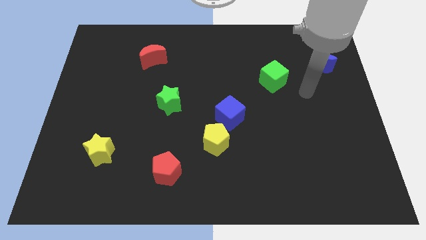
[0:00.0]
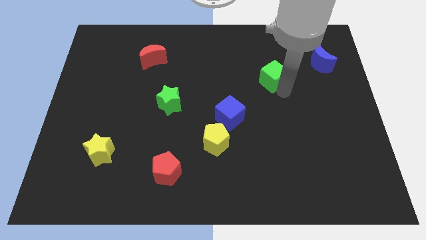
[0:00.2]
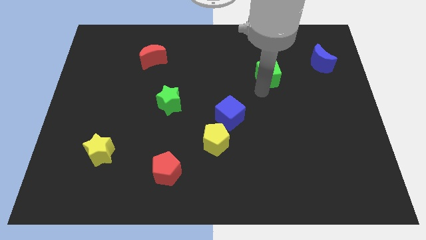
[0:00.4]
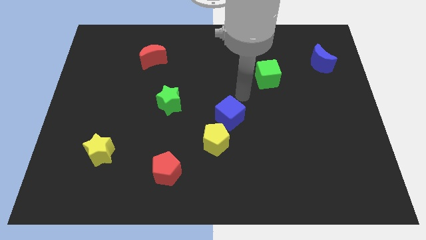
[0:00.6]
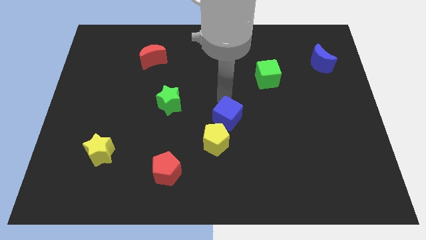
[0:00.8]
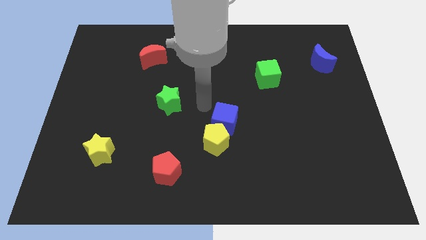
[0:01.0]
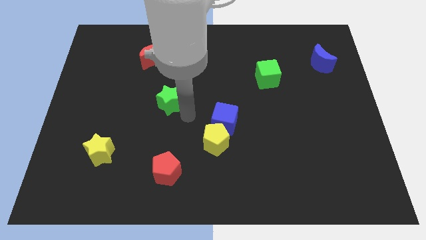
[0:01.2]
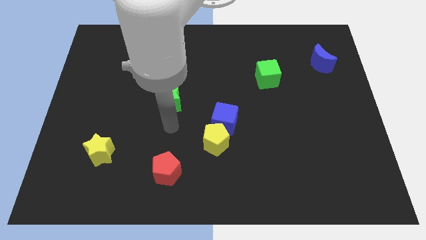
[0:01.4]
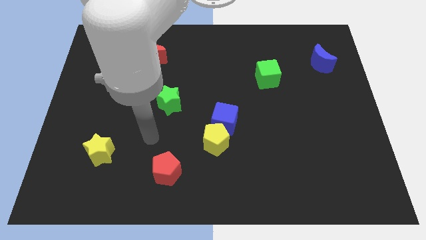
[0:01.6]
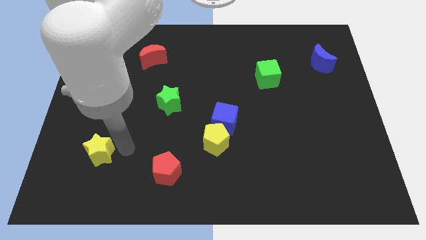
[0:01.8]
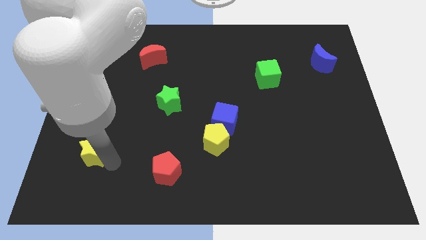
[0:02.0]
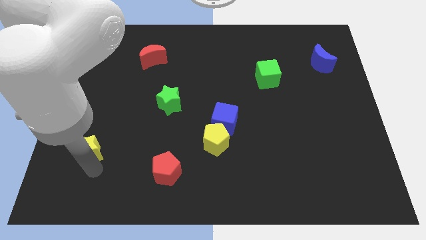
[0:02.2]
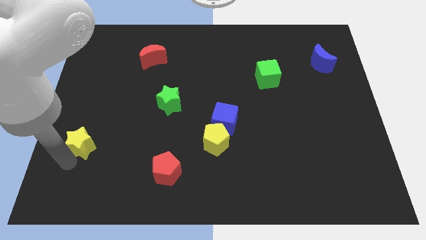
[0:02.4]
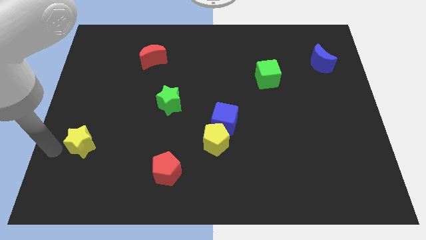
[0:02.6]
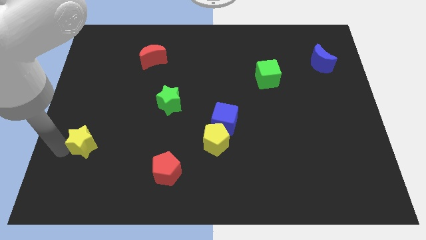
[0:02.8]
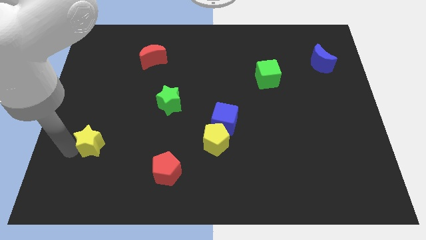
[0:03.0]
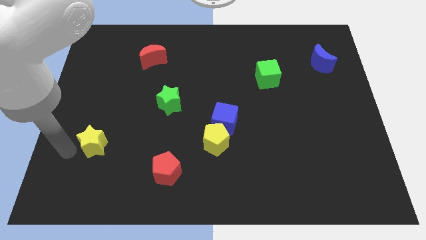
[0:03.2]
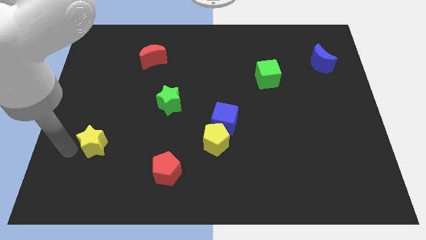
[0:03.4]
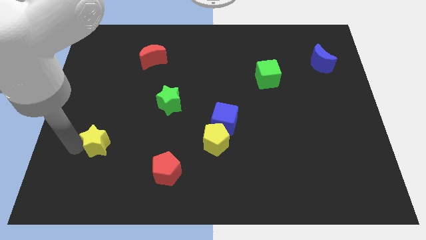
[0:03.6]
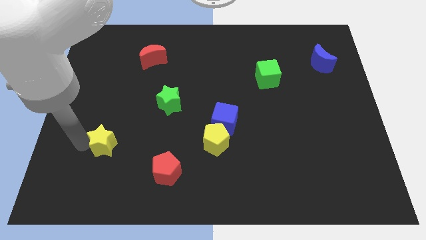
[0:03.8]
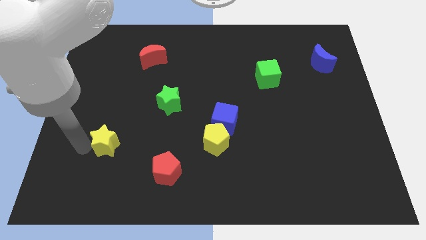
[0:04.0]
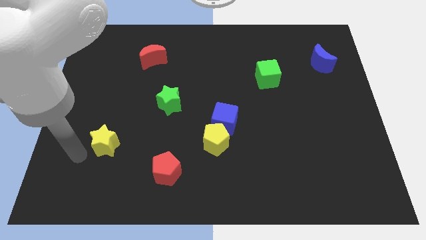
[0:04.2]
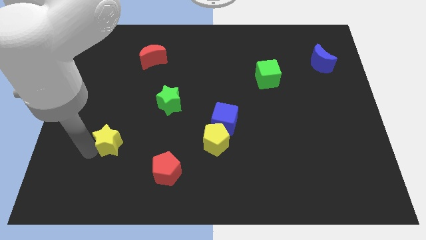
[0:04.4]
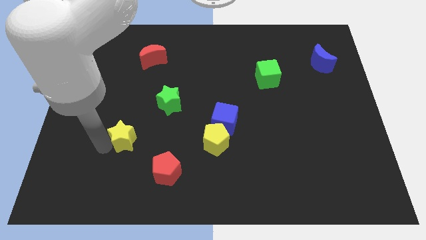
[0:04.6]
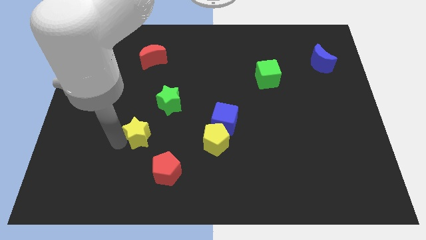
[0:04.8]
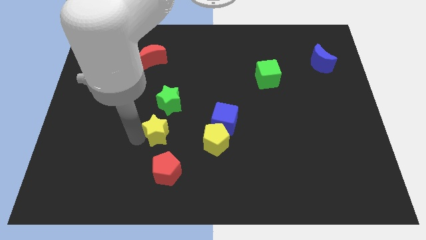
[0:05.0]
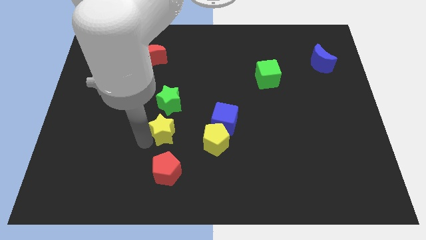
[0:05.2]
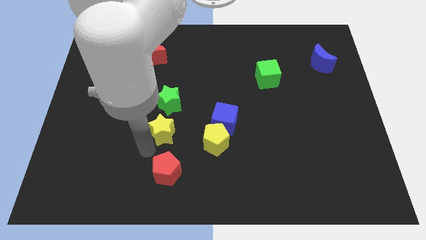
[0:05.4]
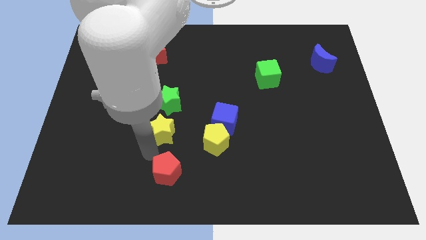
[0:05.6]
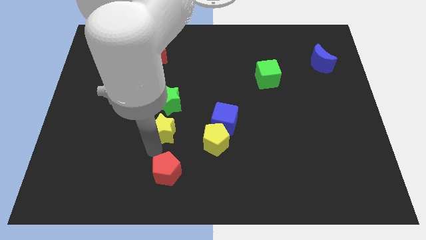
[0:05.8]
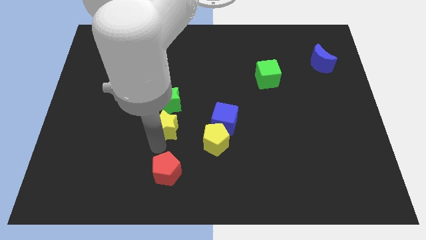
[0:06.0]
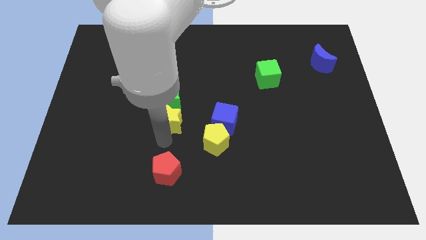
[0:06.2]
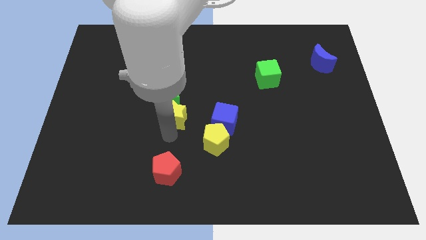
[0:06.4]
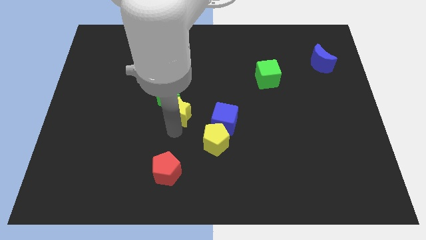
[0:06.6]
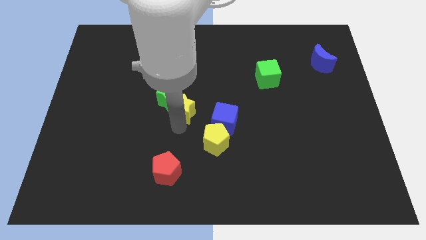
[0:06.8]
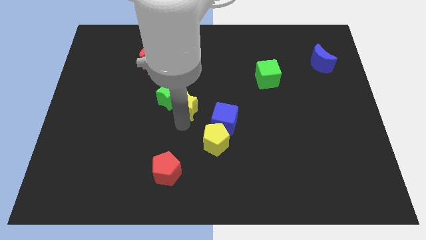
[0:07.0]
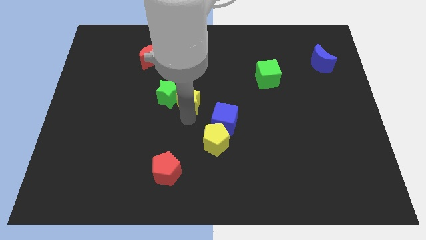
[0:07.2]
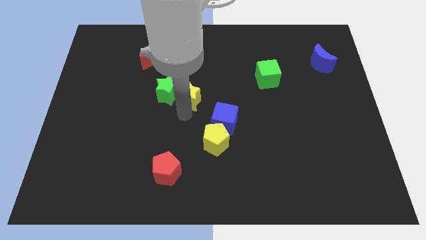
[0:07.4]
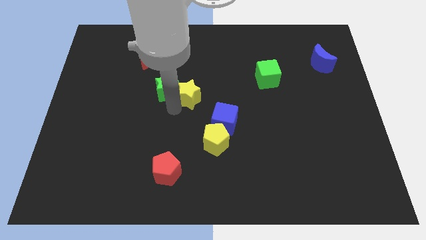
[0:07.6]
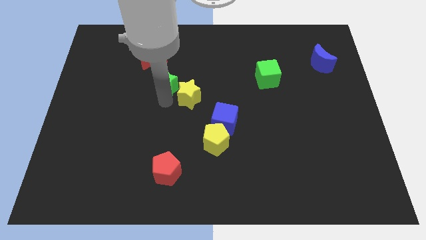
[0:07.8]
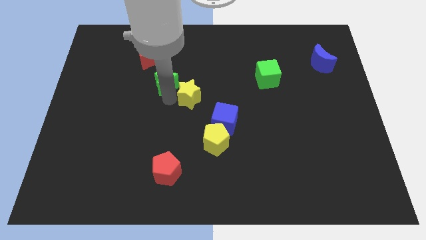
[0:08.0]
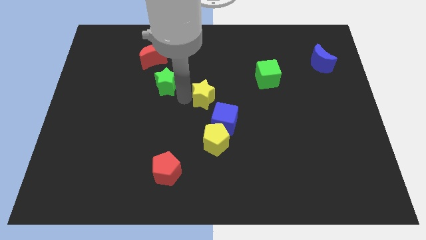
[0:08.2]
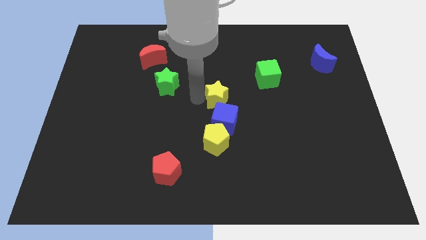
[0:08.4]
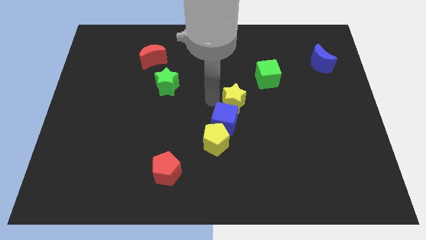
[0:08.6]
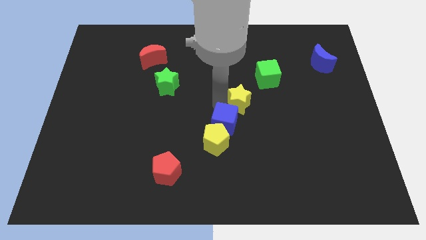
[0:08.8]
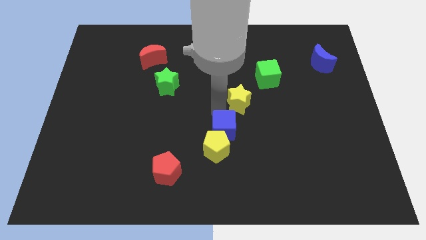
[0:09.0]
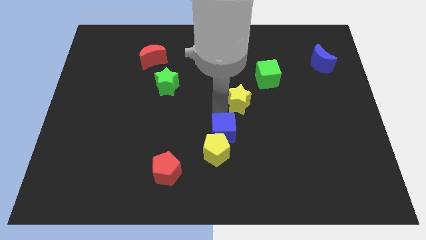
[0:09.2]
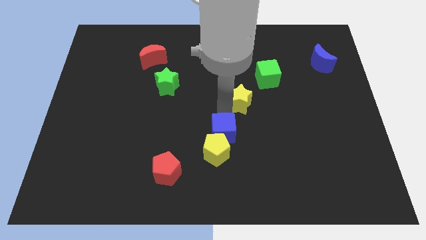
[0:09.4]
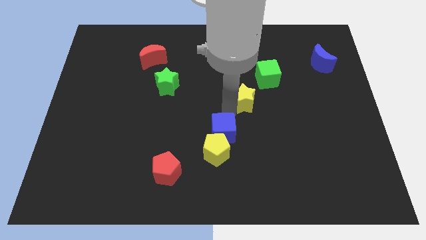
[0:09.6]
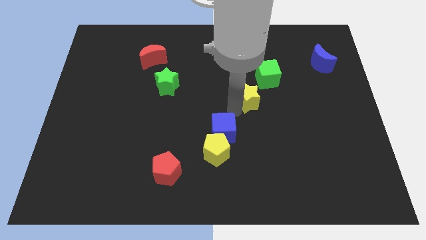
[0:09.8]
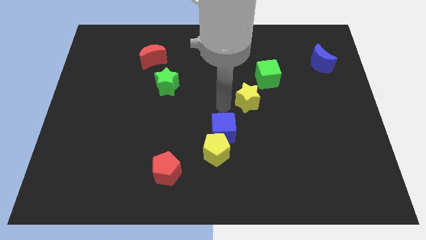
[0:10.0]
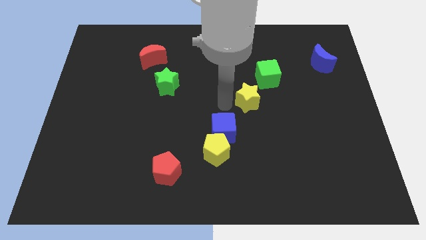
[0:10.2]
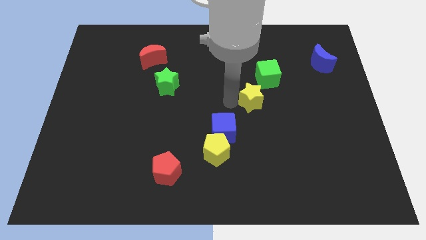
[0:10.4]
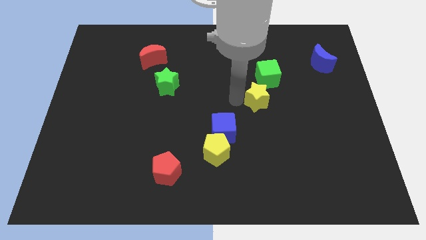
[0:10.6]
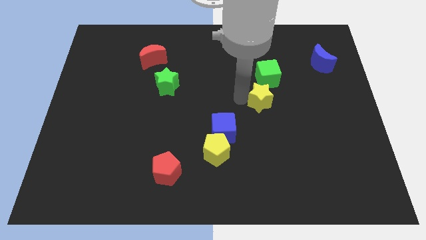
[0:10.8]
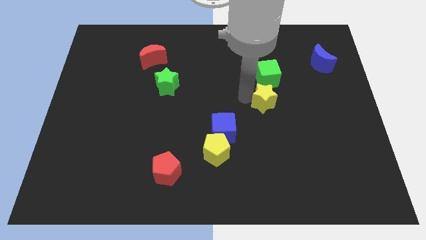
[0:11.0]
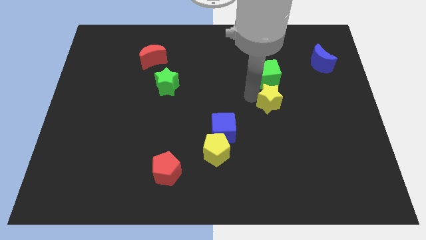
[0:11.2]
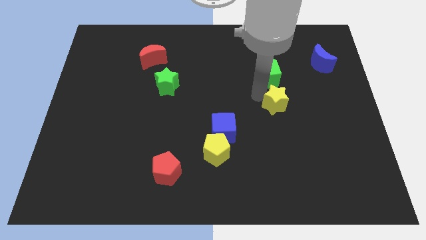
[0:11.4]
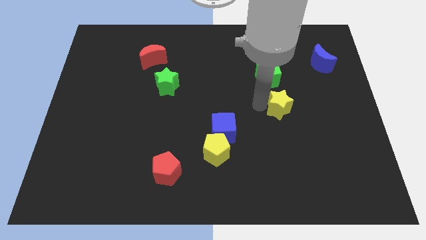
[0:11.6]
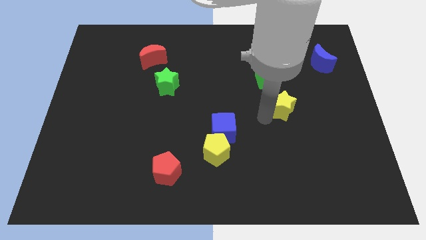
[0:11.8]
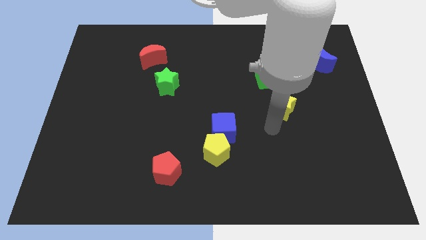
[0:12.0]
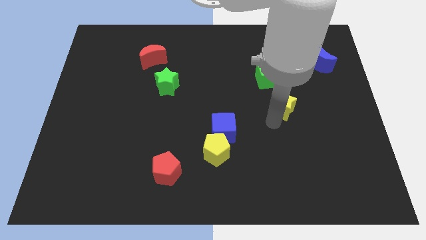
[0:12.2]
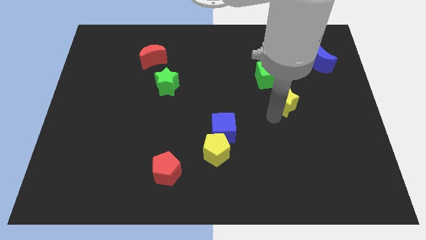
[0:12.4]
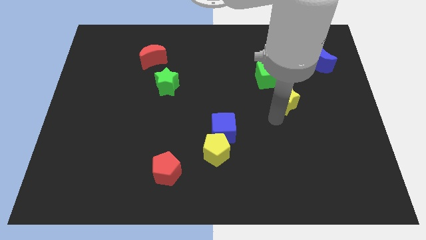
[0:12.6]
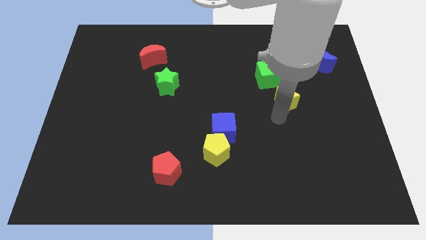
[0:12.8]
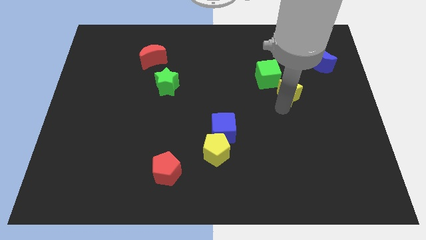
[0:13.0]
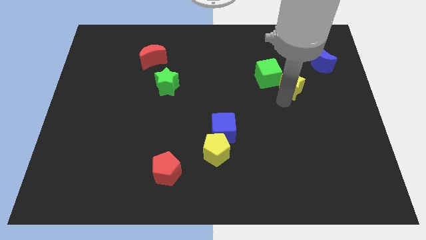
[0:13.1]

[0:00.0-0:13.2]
put the yellow star right of the green cube

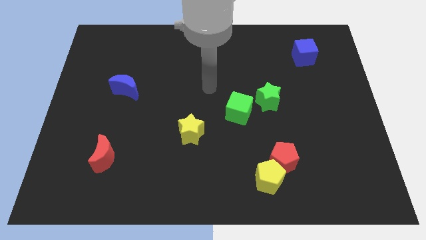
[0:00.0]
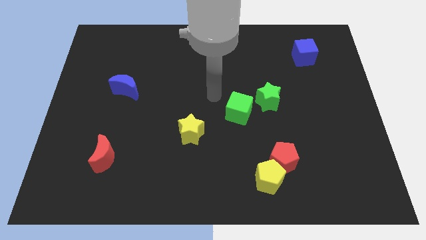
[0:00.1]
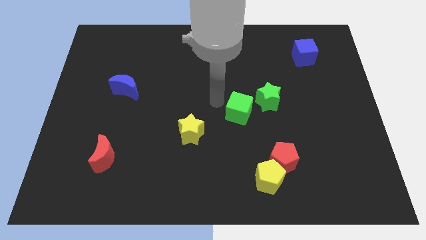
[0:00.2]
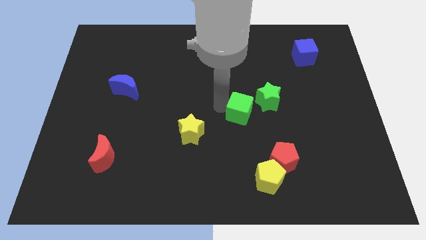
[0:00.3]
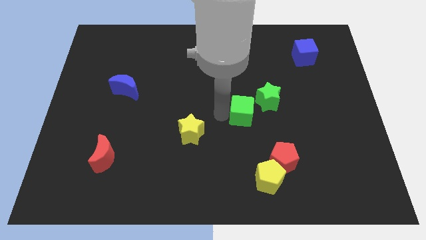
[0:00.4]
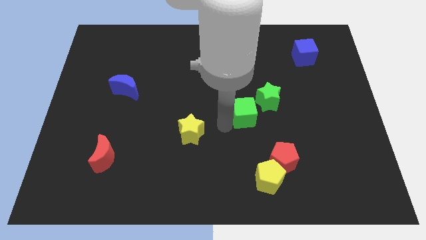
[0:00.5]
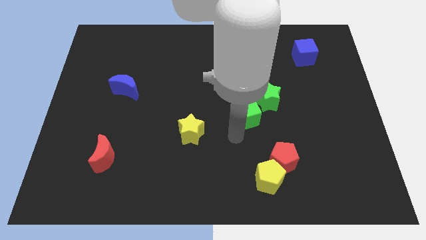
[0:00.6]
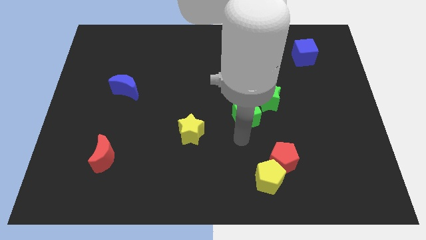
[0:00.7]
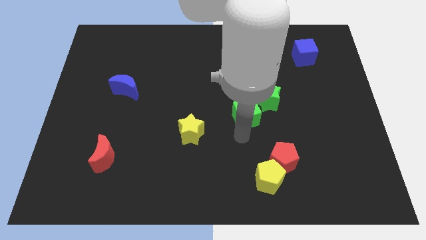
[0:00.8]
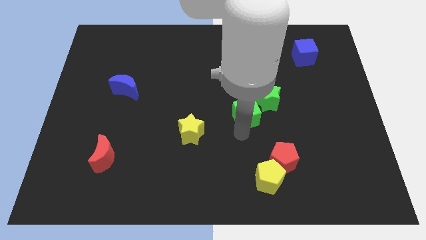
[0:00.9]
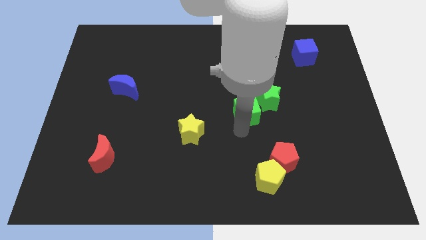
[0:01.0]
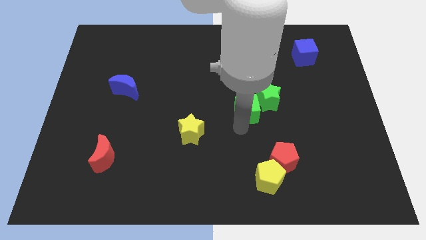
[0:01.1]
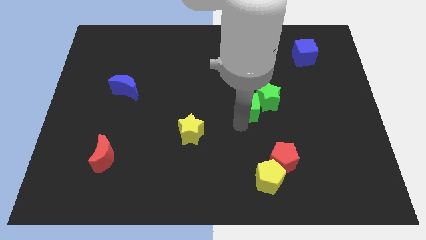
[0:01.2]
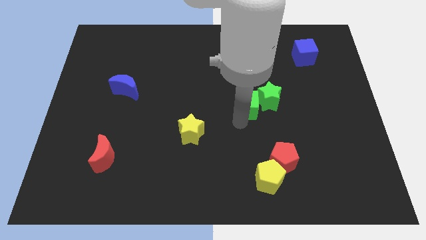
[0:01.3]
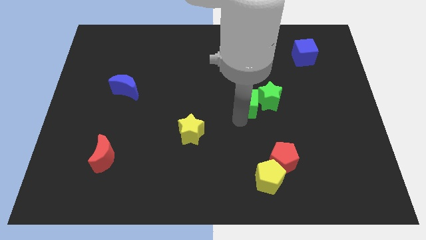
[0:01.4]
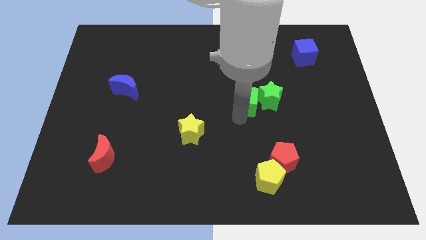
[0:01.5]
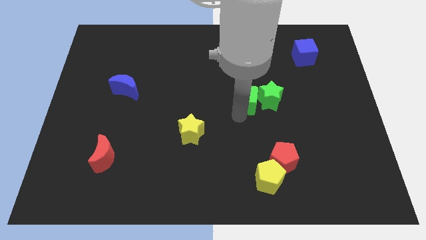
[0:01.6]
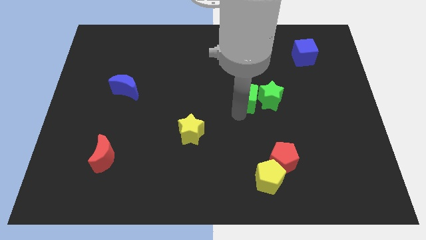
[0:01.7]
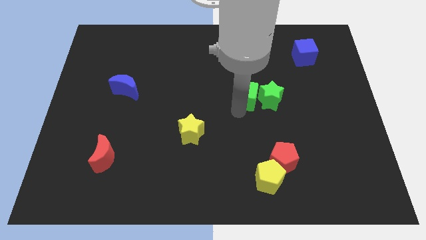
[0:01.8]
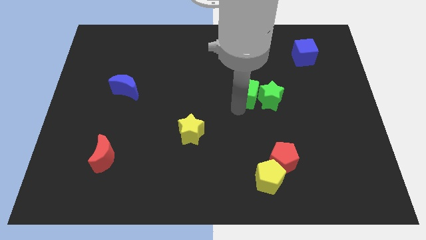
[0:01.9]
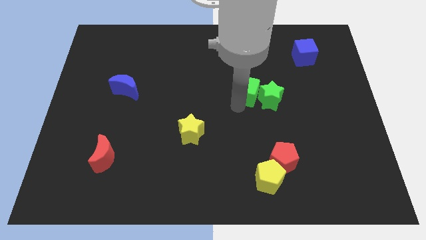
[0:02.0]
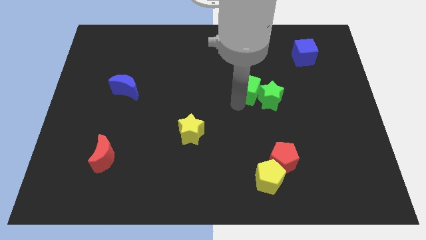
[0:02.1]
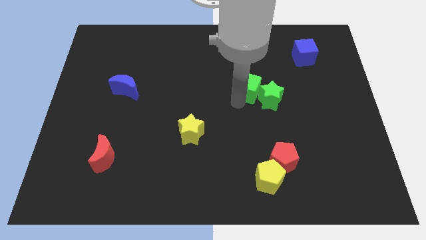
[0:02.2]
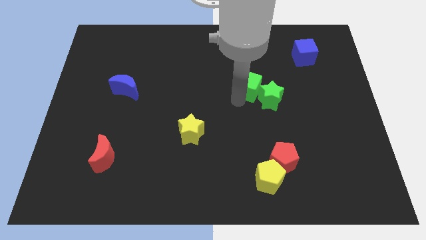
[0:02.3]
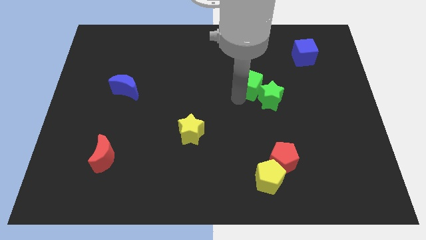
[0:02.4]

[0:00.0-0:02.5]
push the green cube above the green star
